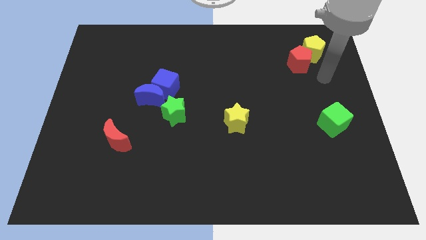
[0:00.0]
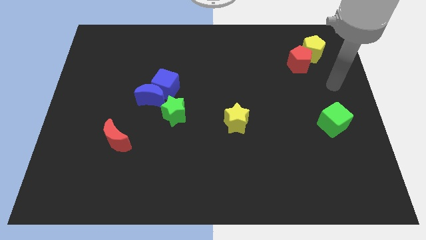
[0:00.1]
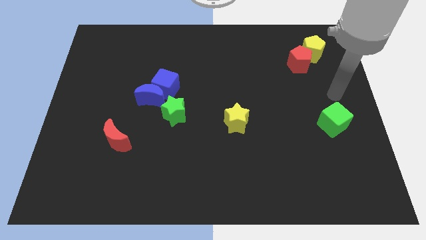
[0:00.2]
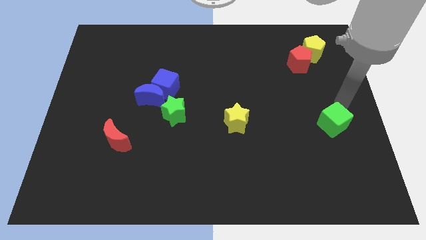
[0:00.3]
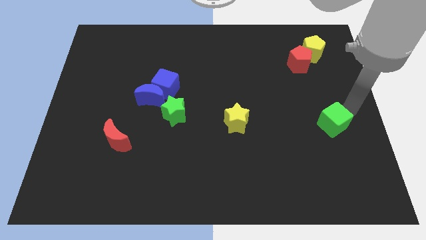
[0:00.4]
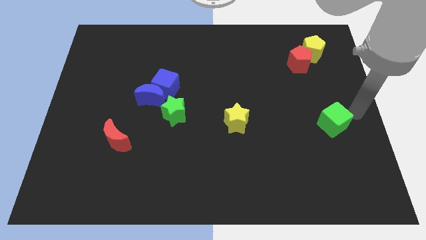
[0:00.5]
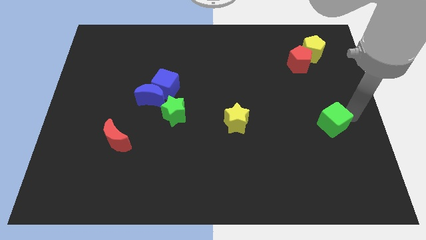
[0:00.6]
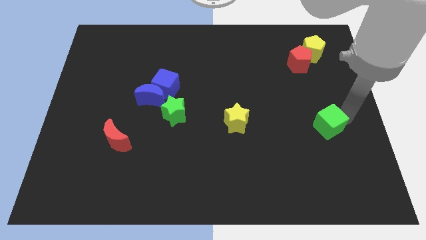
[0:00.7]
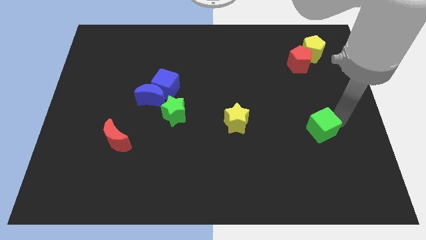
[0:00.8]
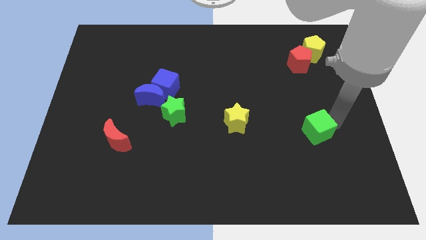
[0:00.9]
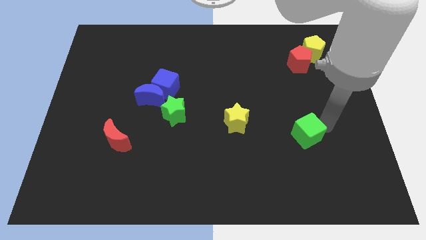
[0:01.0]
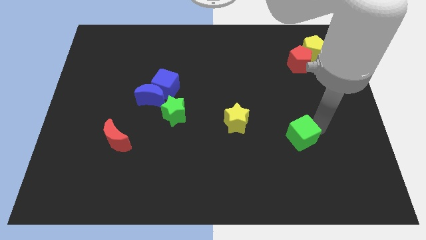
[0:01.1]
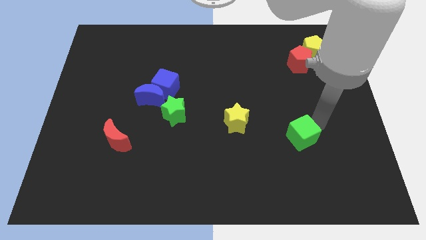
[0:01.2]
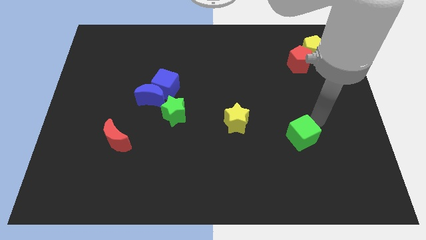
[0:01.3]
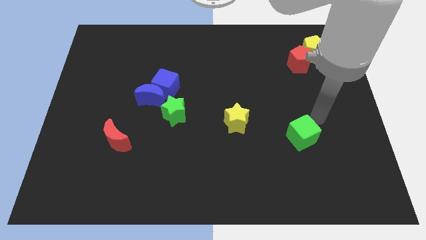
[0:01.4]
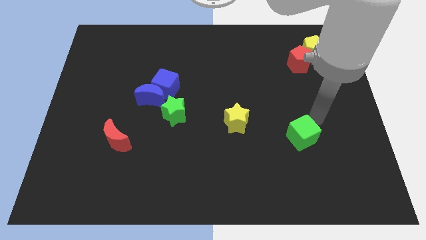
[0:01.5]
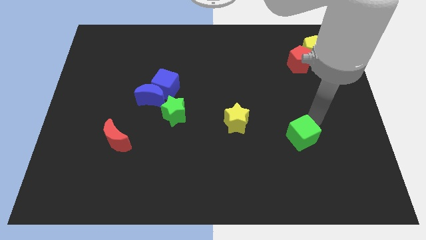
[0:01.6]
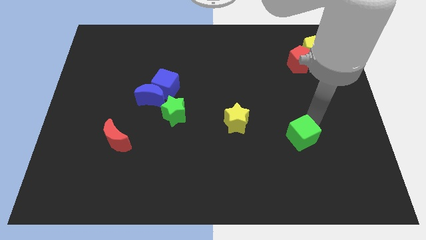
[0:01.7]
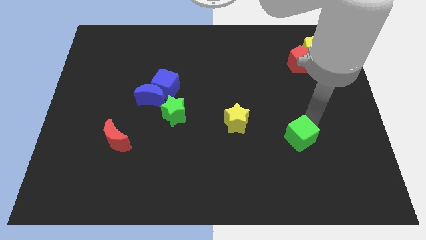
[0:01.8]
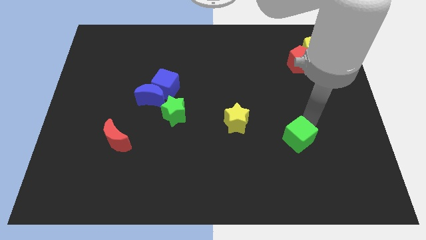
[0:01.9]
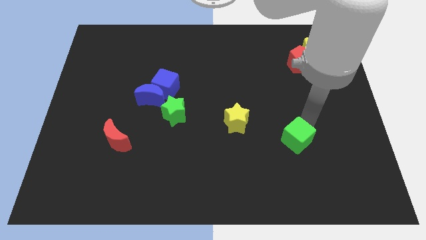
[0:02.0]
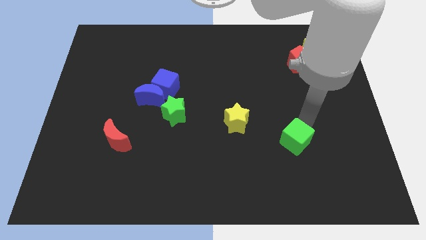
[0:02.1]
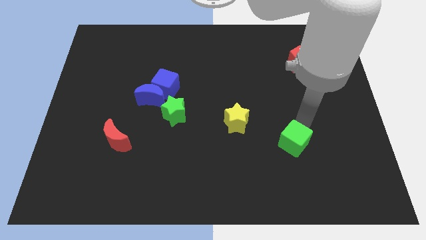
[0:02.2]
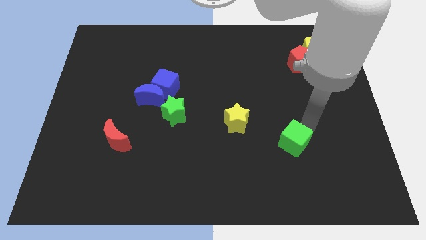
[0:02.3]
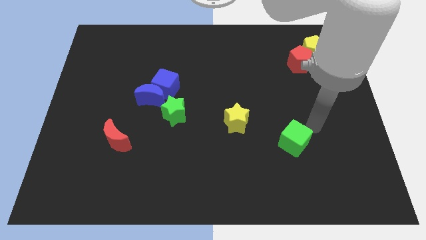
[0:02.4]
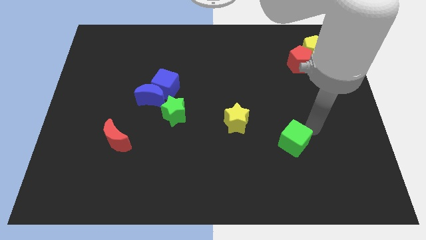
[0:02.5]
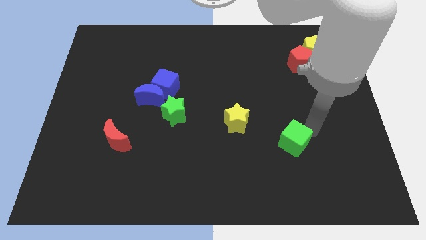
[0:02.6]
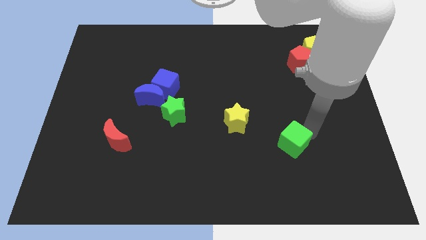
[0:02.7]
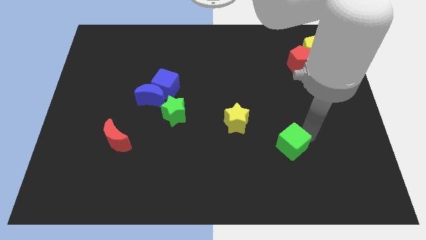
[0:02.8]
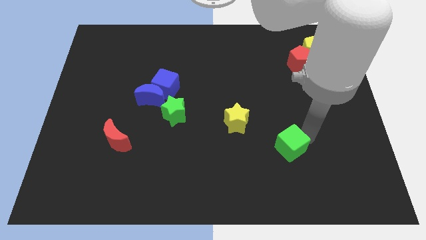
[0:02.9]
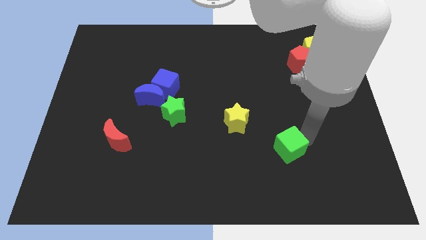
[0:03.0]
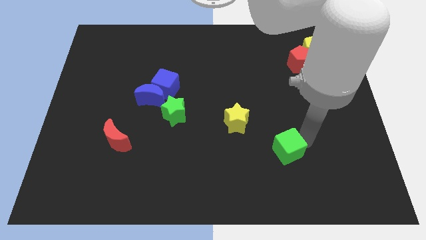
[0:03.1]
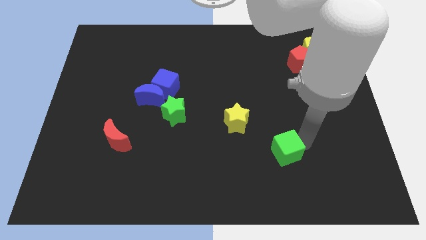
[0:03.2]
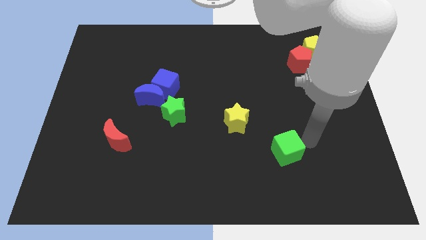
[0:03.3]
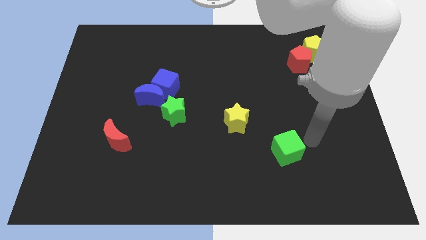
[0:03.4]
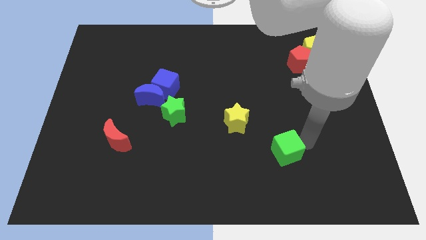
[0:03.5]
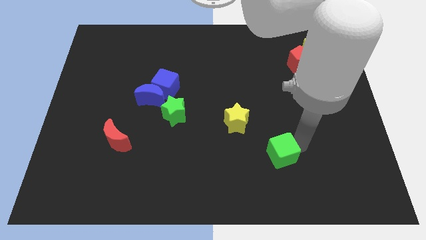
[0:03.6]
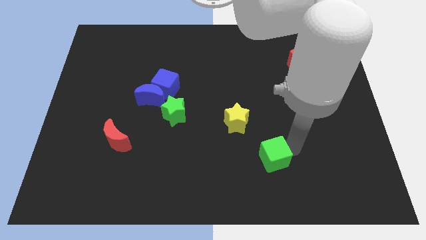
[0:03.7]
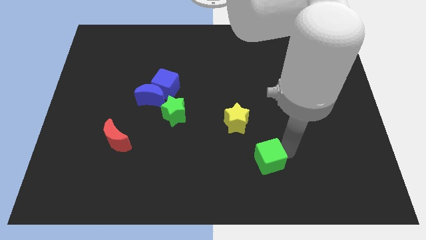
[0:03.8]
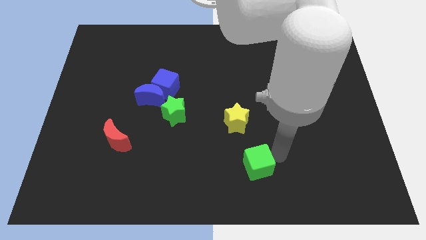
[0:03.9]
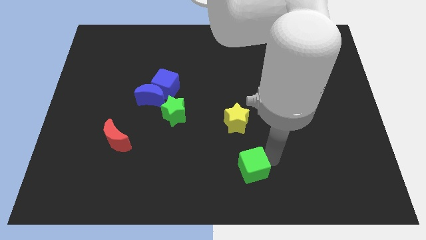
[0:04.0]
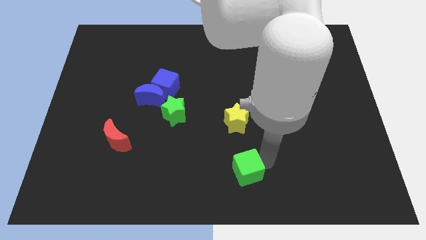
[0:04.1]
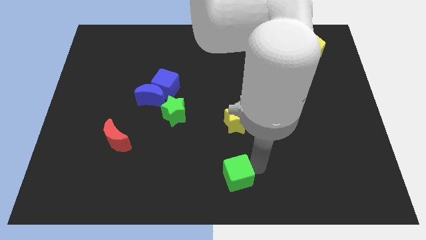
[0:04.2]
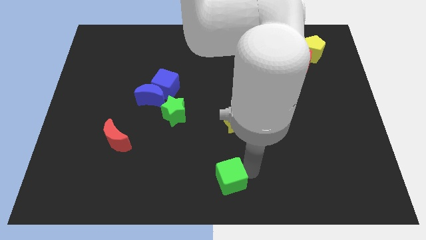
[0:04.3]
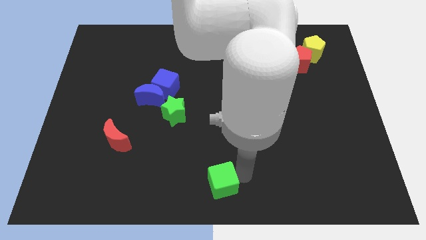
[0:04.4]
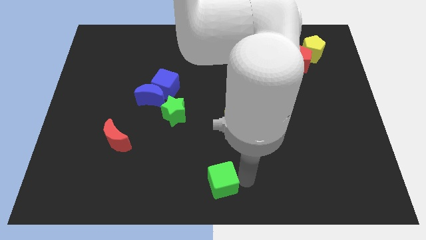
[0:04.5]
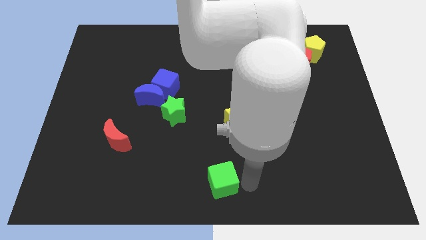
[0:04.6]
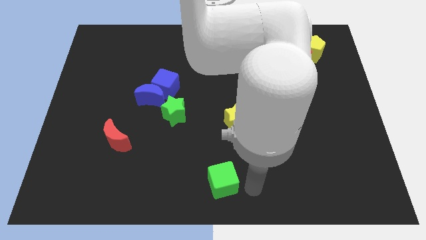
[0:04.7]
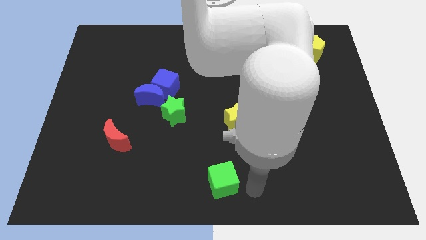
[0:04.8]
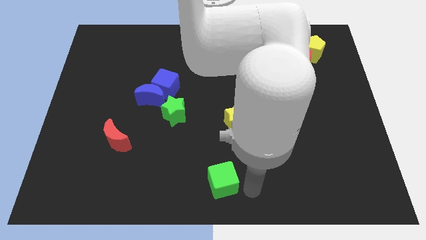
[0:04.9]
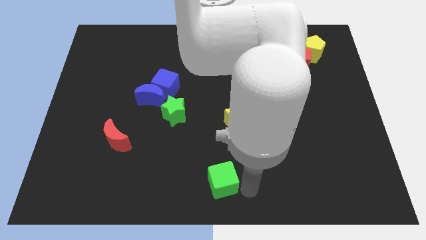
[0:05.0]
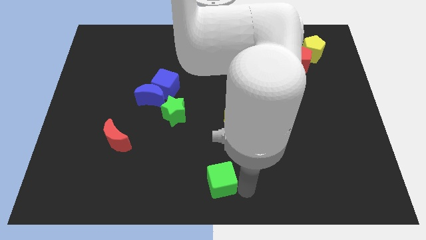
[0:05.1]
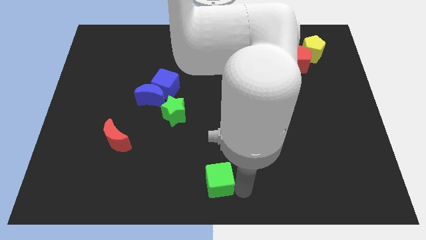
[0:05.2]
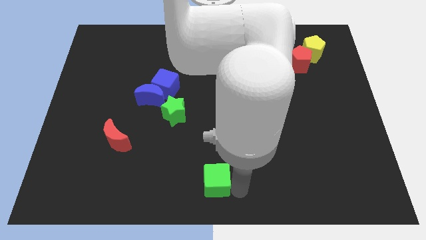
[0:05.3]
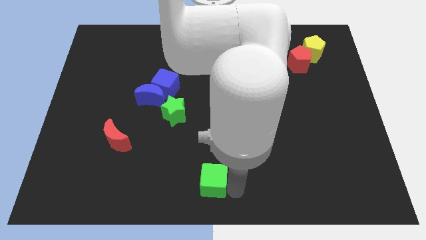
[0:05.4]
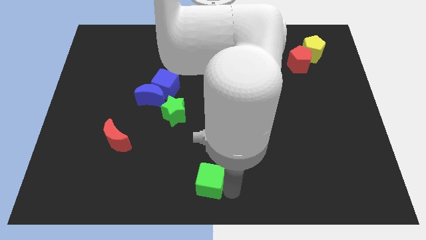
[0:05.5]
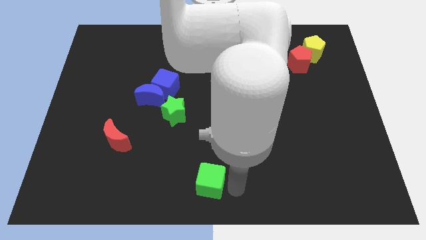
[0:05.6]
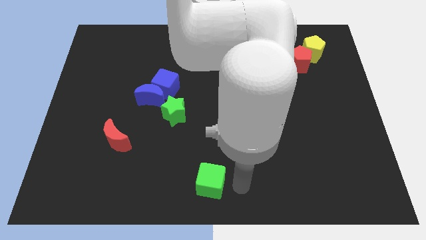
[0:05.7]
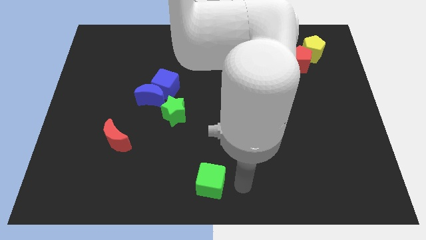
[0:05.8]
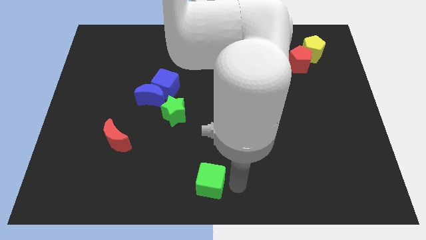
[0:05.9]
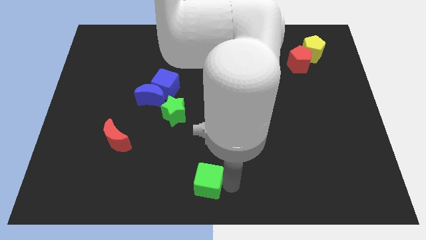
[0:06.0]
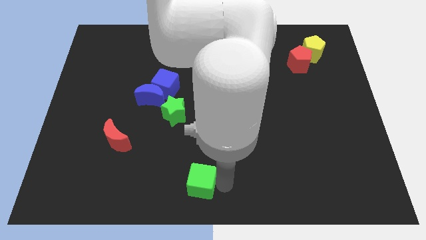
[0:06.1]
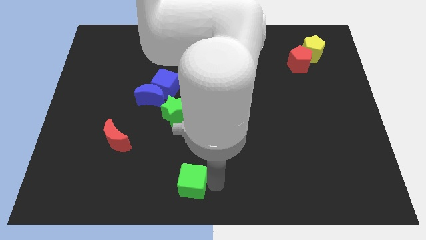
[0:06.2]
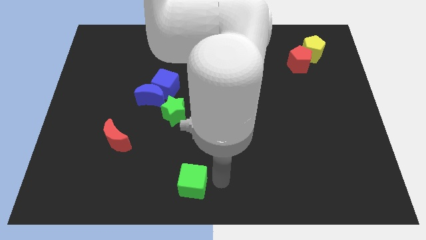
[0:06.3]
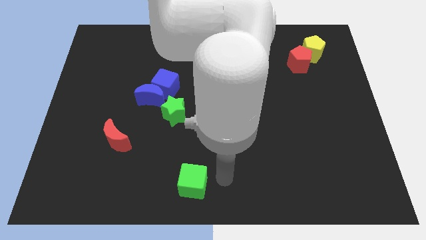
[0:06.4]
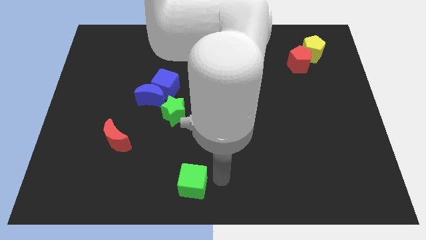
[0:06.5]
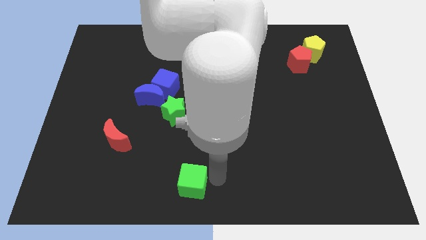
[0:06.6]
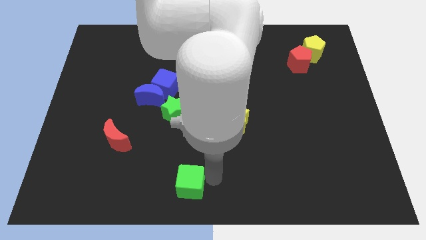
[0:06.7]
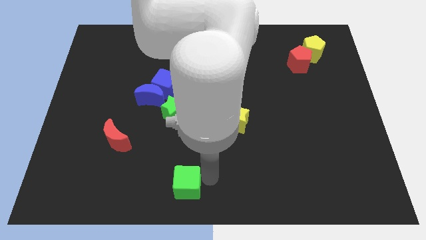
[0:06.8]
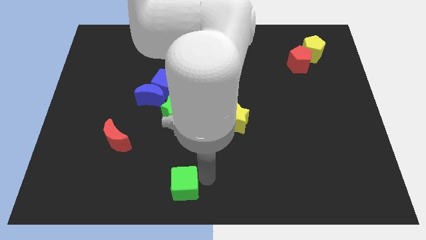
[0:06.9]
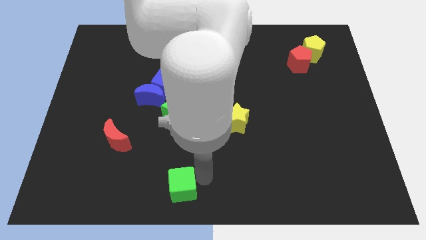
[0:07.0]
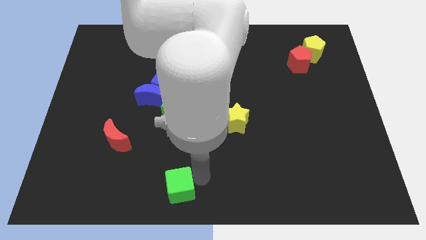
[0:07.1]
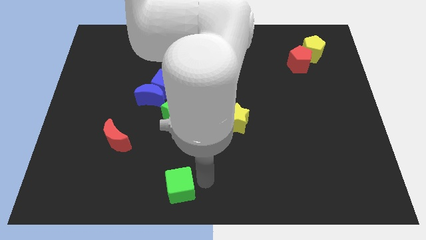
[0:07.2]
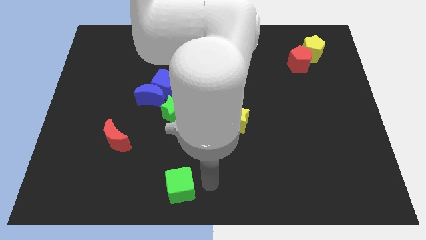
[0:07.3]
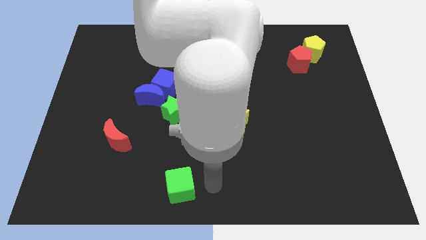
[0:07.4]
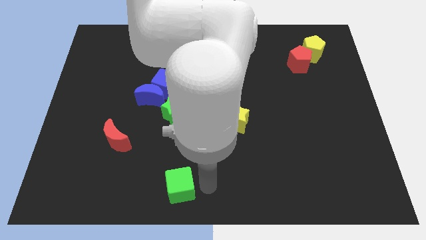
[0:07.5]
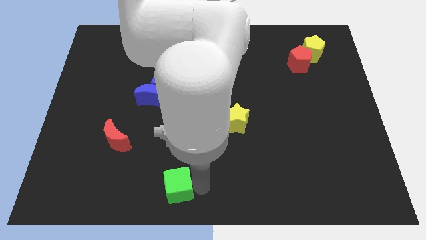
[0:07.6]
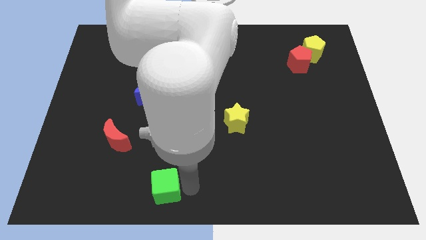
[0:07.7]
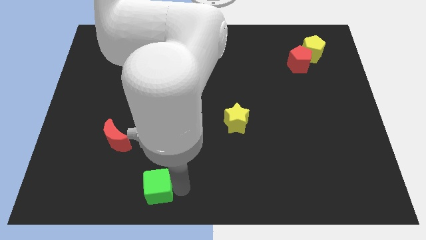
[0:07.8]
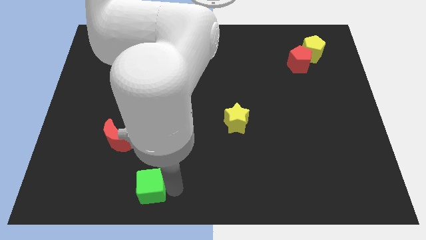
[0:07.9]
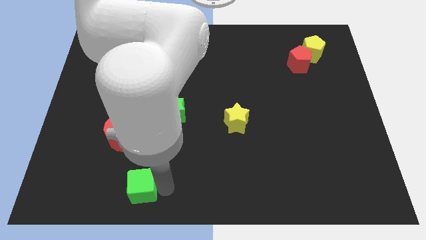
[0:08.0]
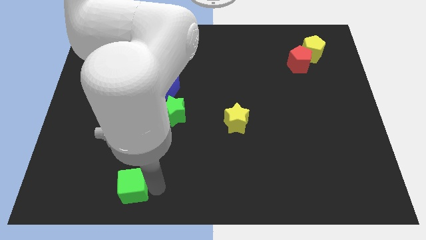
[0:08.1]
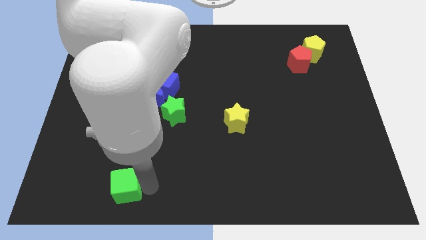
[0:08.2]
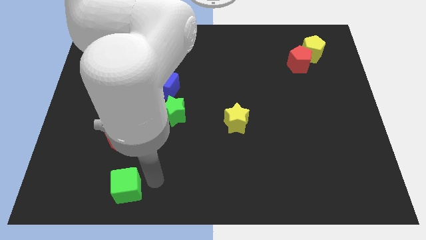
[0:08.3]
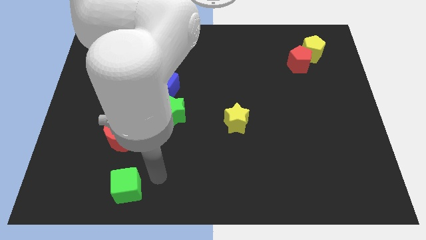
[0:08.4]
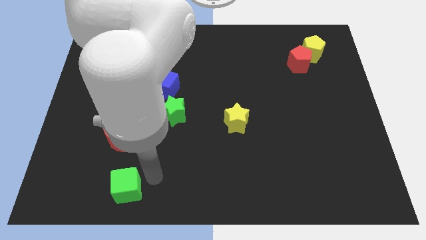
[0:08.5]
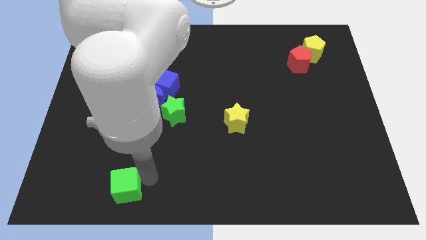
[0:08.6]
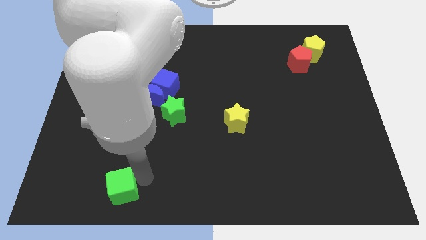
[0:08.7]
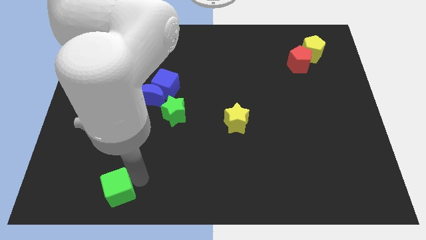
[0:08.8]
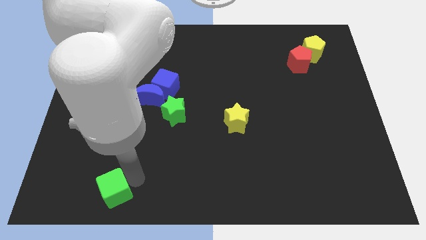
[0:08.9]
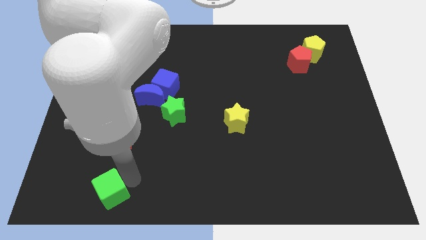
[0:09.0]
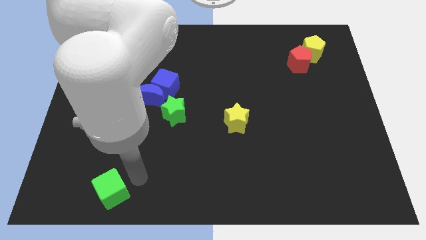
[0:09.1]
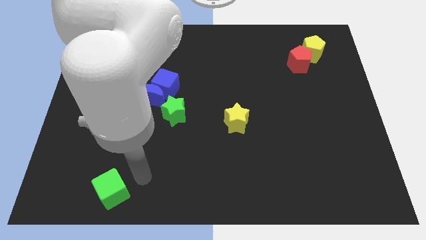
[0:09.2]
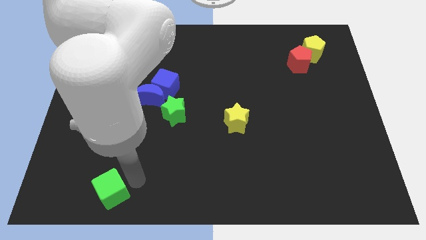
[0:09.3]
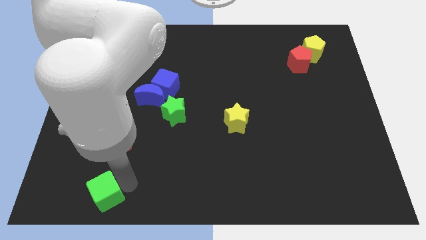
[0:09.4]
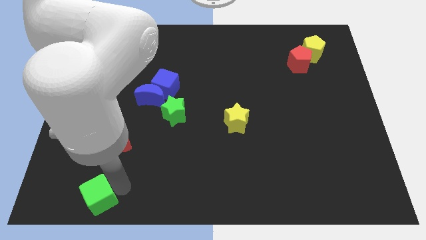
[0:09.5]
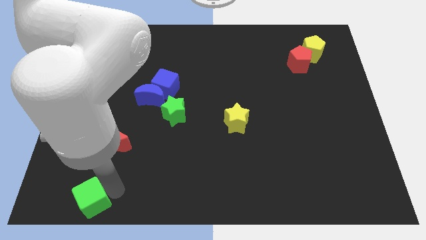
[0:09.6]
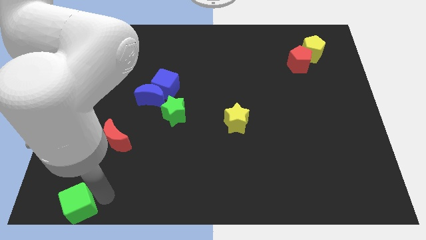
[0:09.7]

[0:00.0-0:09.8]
slide the green cube to the bottom left corner
